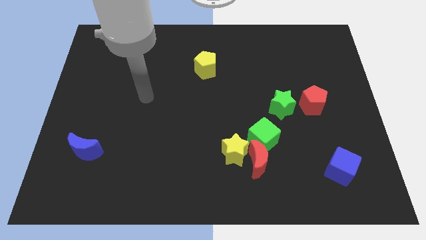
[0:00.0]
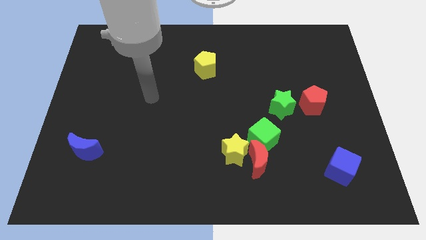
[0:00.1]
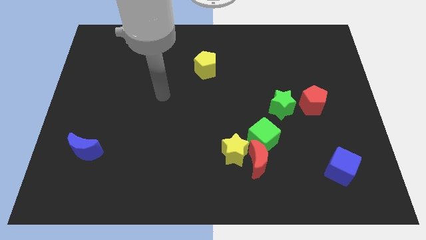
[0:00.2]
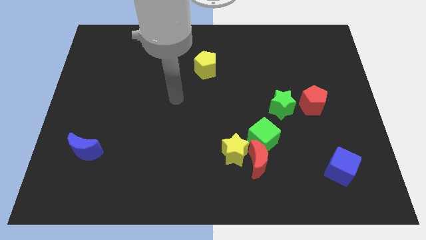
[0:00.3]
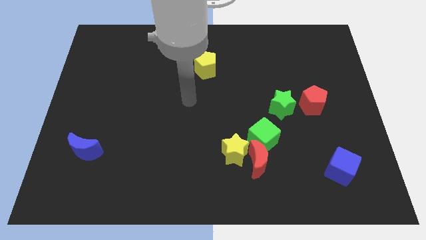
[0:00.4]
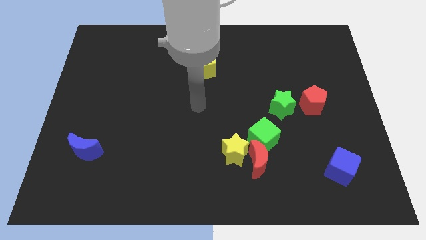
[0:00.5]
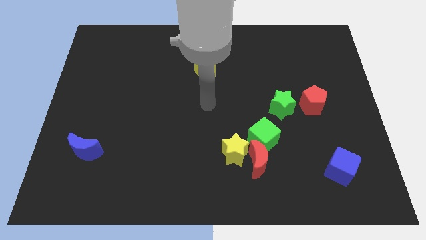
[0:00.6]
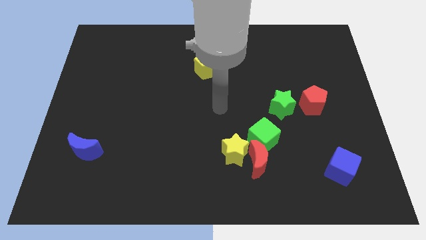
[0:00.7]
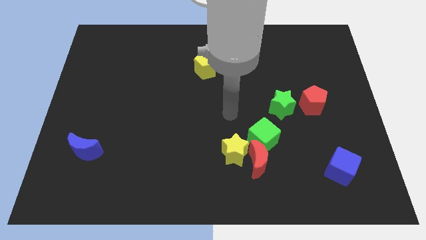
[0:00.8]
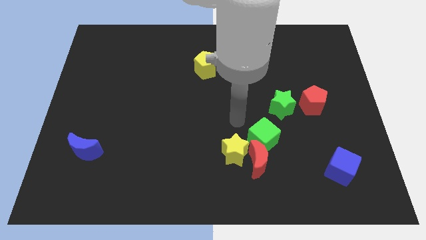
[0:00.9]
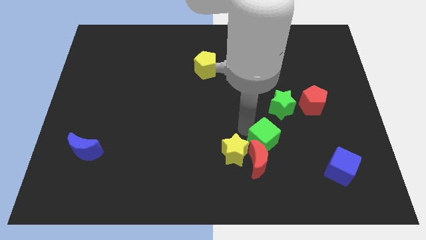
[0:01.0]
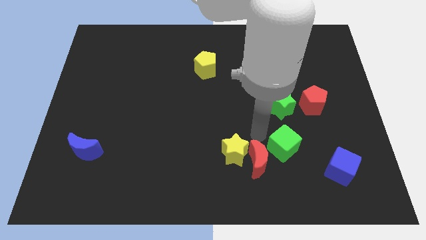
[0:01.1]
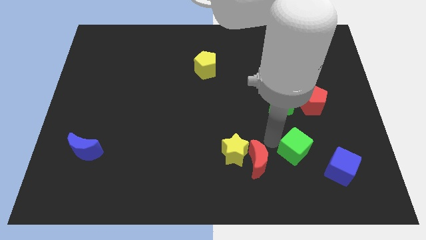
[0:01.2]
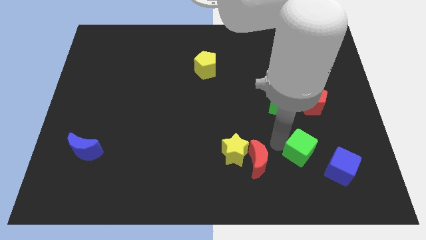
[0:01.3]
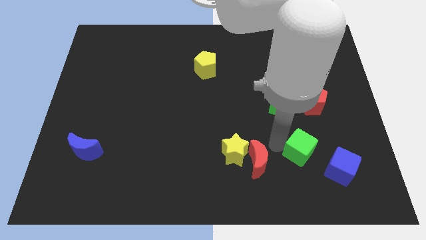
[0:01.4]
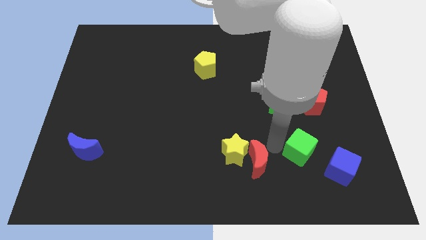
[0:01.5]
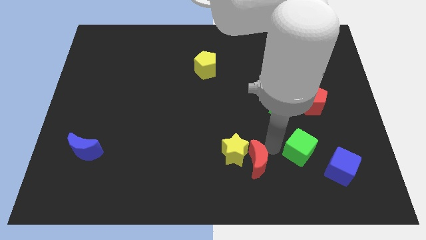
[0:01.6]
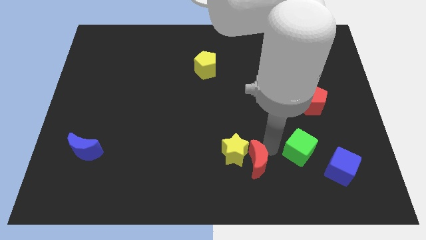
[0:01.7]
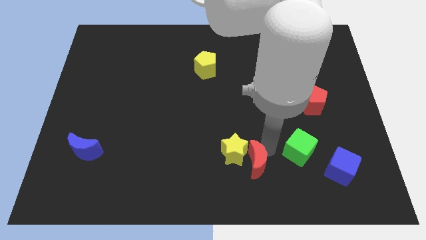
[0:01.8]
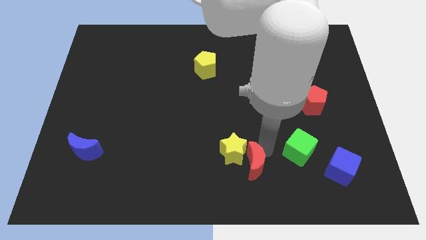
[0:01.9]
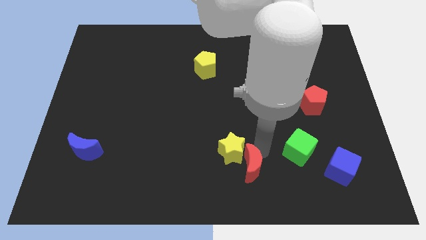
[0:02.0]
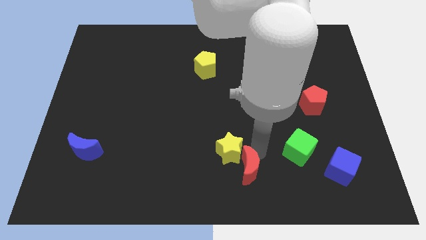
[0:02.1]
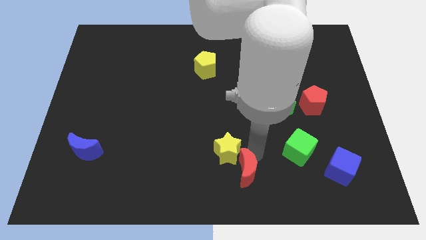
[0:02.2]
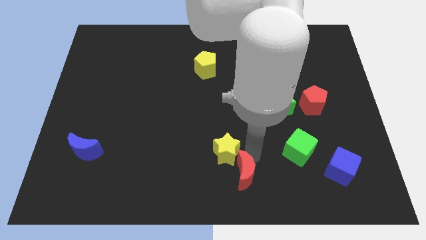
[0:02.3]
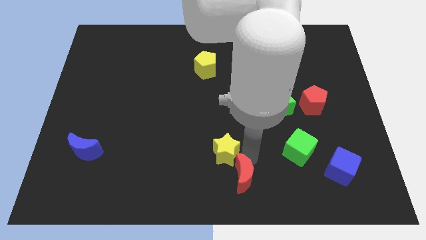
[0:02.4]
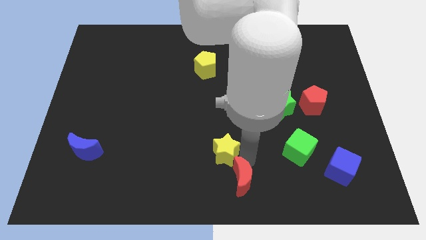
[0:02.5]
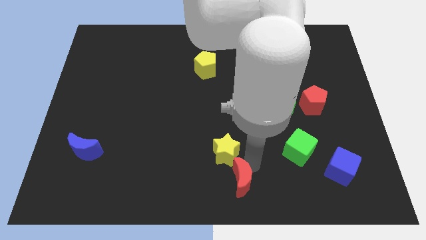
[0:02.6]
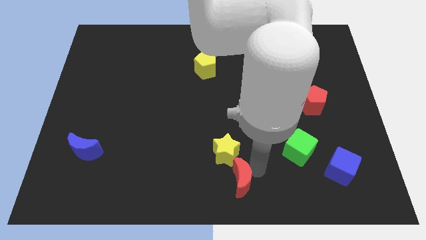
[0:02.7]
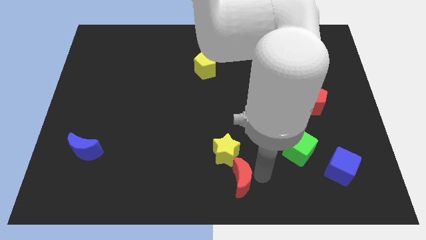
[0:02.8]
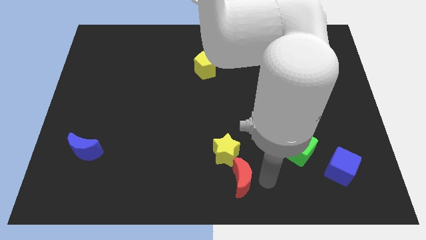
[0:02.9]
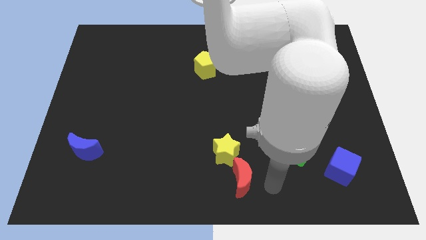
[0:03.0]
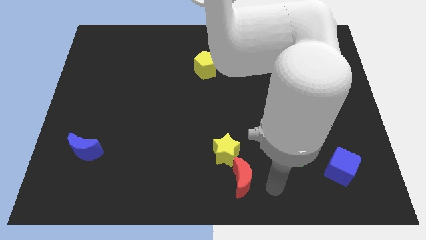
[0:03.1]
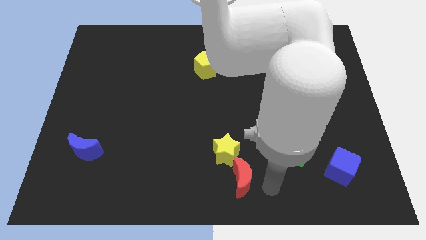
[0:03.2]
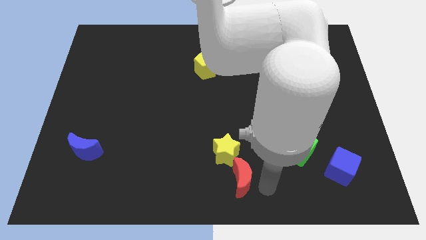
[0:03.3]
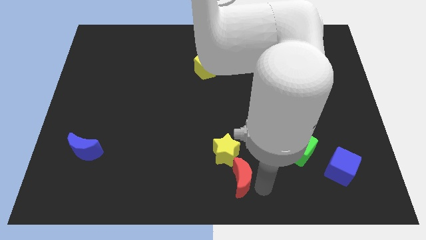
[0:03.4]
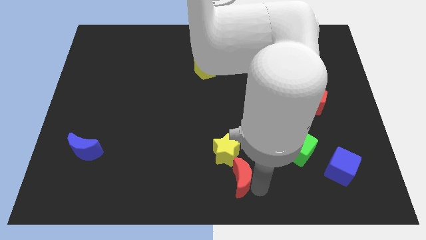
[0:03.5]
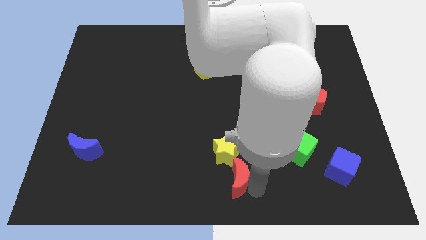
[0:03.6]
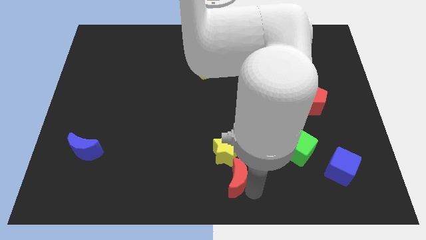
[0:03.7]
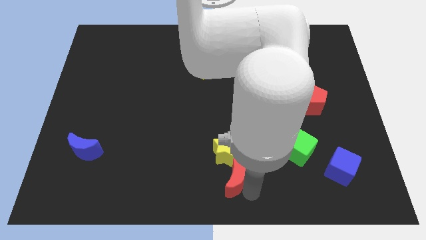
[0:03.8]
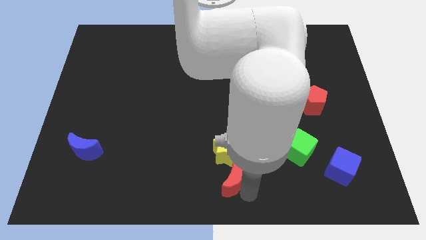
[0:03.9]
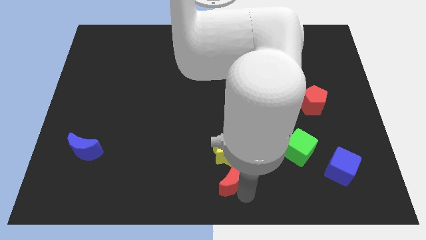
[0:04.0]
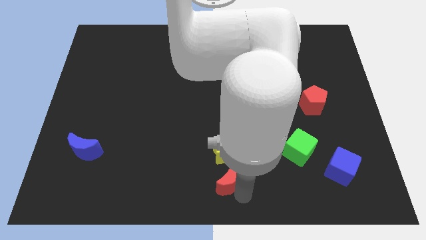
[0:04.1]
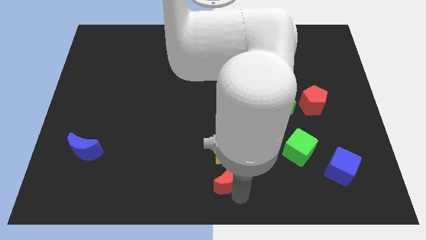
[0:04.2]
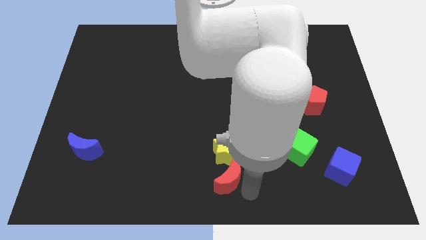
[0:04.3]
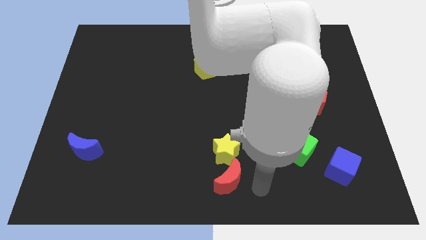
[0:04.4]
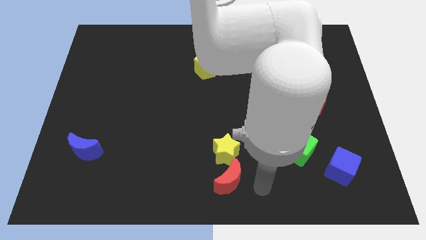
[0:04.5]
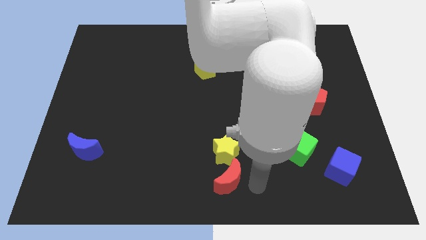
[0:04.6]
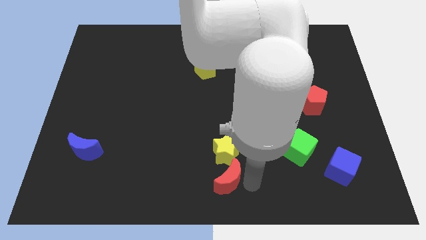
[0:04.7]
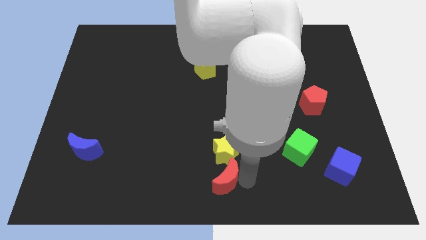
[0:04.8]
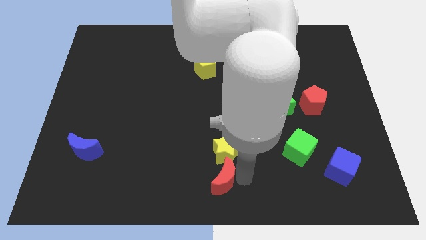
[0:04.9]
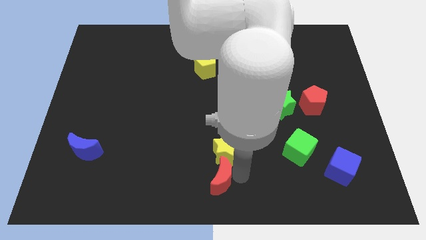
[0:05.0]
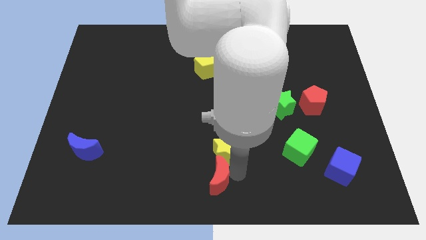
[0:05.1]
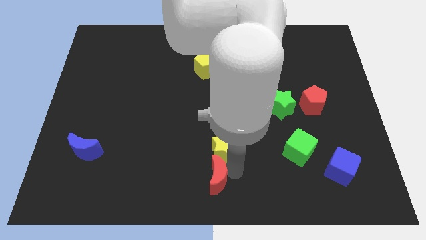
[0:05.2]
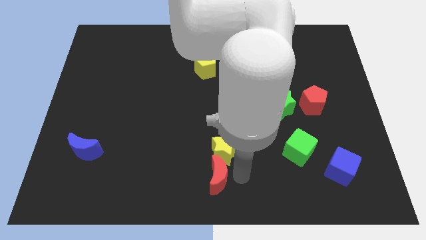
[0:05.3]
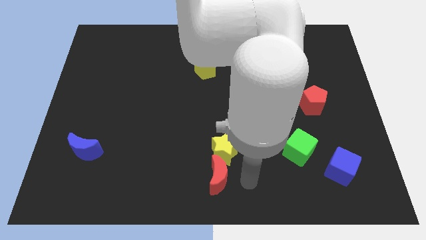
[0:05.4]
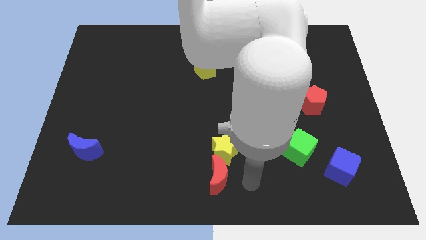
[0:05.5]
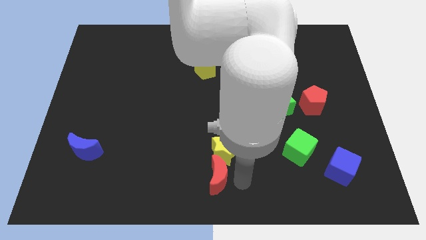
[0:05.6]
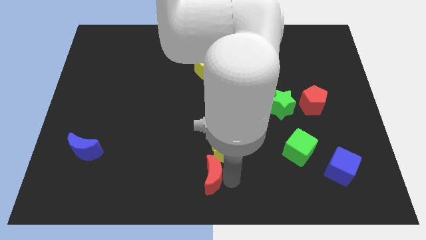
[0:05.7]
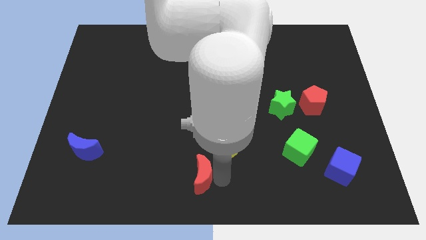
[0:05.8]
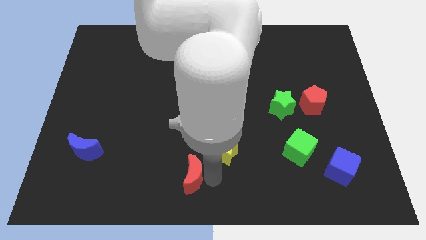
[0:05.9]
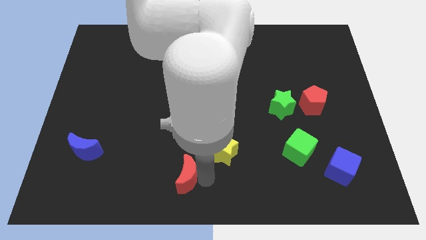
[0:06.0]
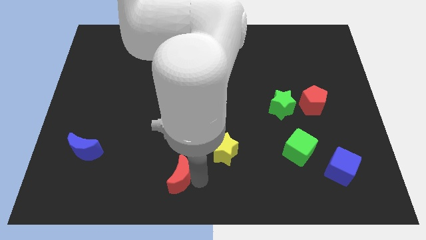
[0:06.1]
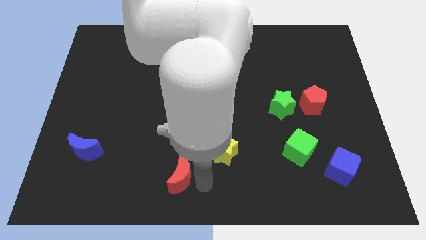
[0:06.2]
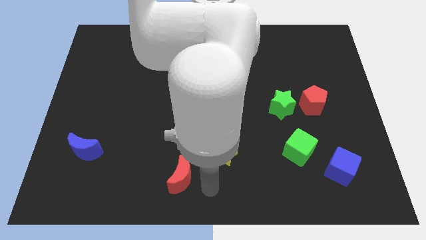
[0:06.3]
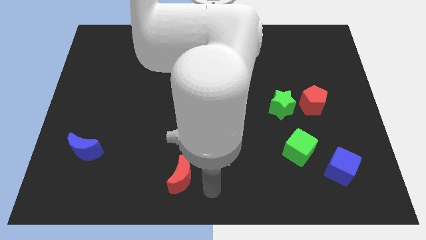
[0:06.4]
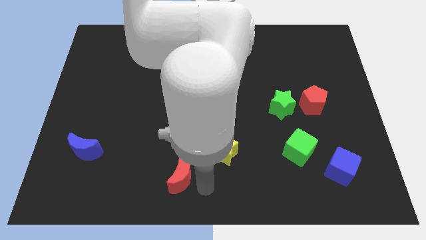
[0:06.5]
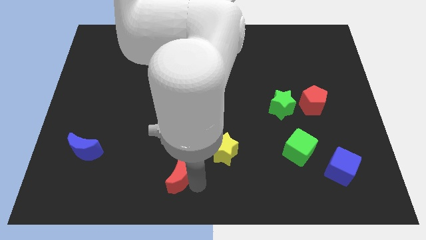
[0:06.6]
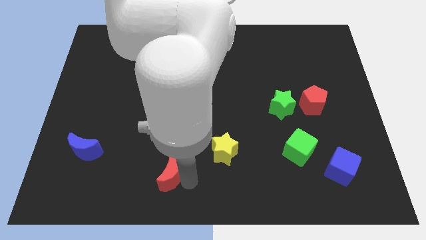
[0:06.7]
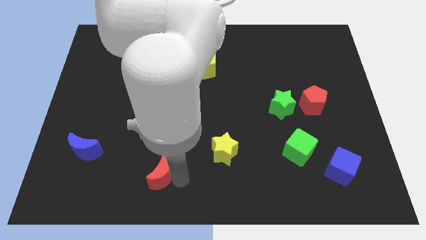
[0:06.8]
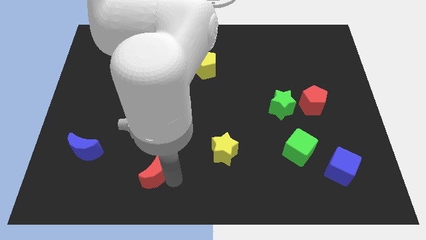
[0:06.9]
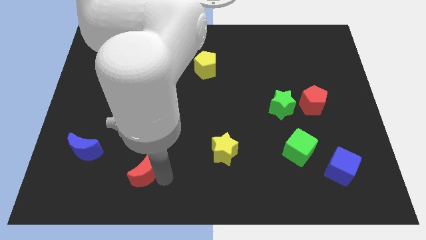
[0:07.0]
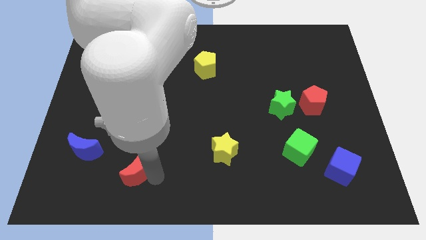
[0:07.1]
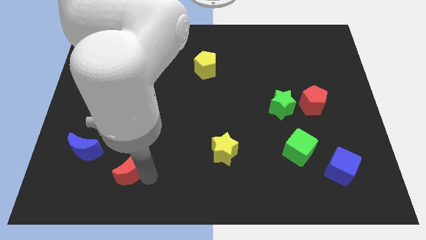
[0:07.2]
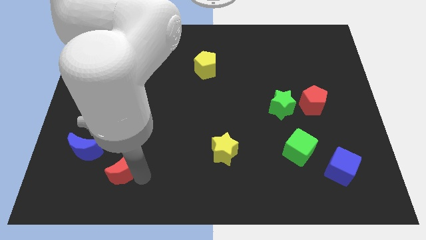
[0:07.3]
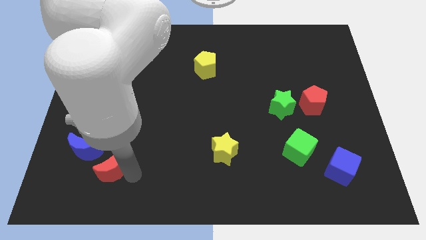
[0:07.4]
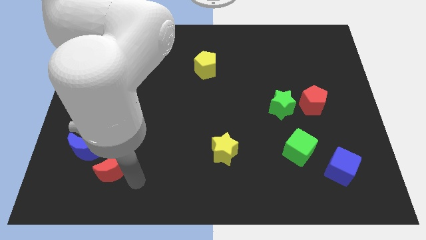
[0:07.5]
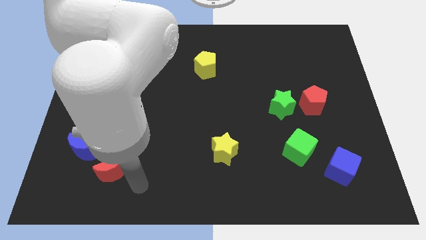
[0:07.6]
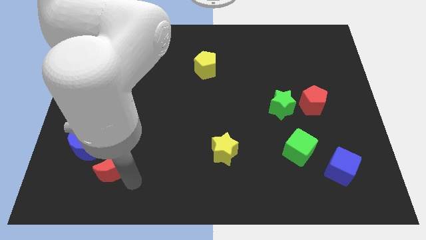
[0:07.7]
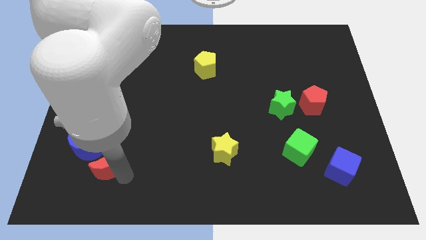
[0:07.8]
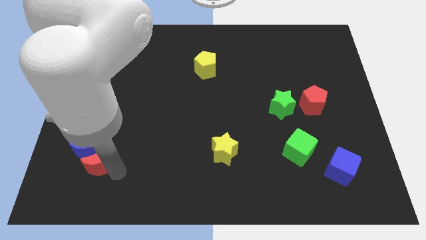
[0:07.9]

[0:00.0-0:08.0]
push the red moon to the blue moon
